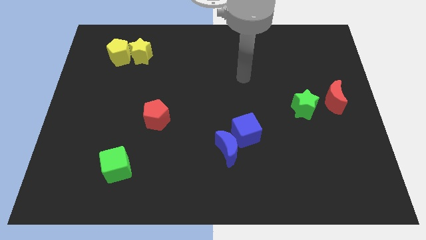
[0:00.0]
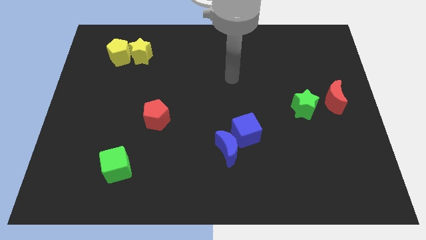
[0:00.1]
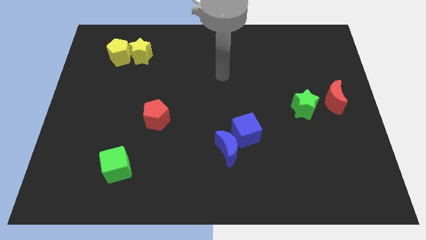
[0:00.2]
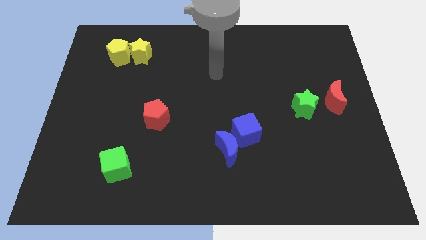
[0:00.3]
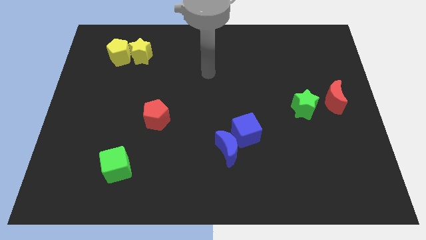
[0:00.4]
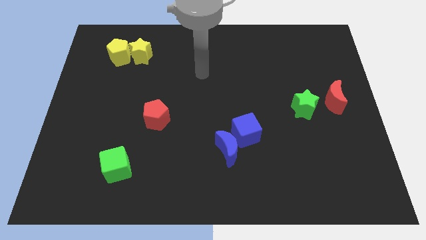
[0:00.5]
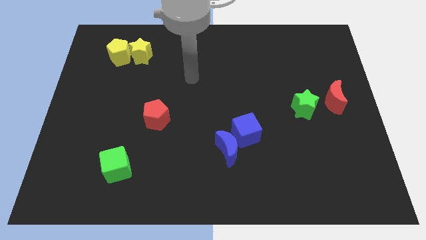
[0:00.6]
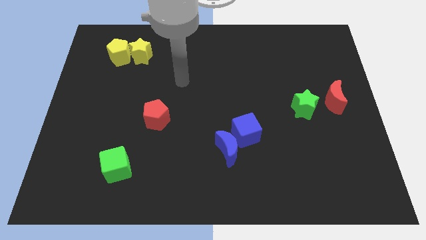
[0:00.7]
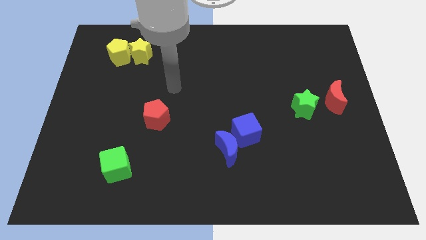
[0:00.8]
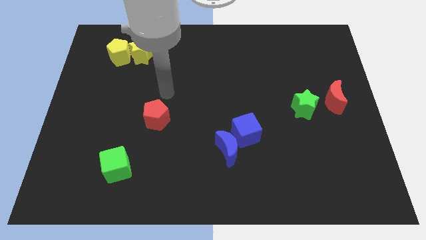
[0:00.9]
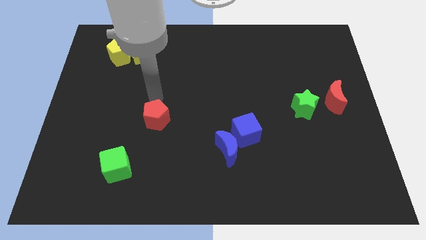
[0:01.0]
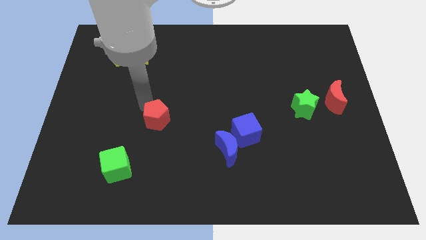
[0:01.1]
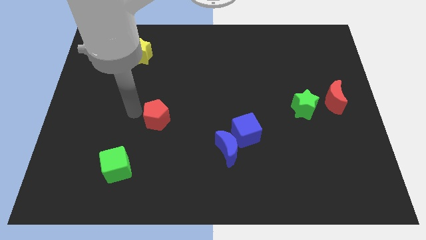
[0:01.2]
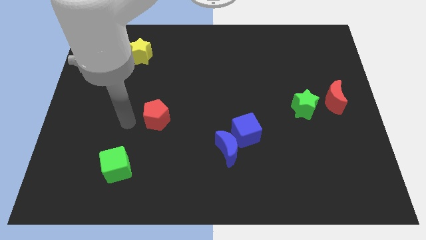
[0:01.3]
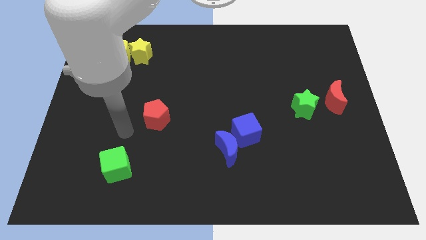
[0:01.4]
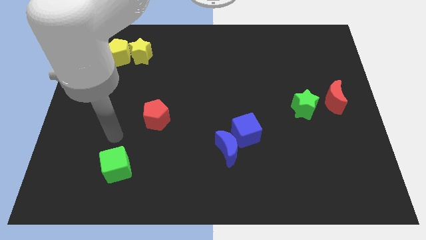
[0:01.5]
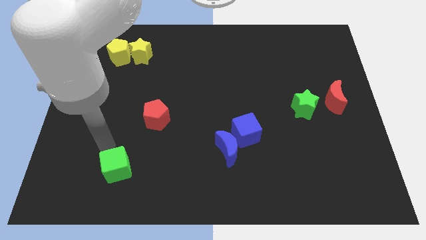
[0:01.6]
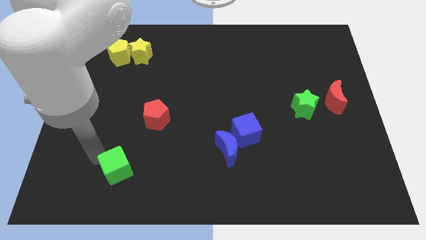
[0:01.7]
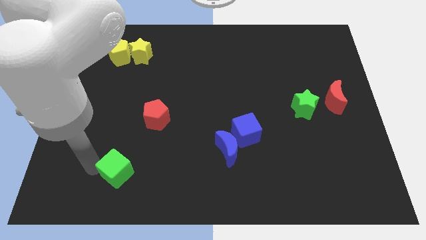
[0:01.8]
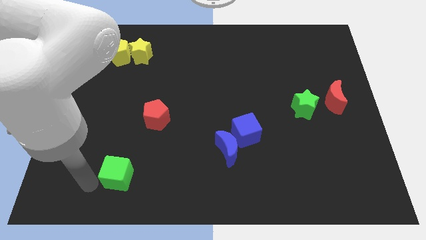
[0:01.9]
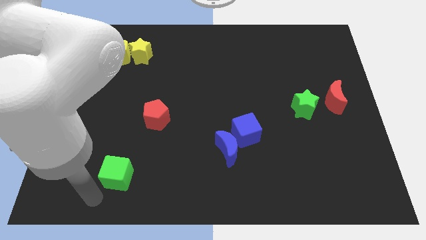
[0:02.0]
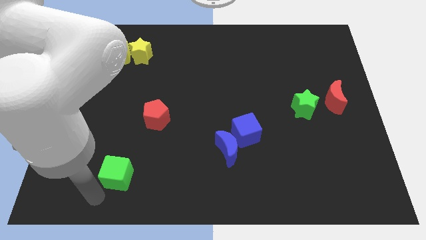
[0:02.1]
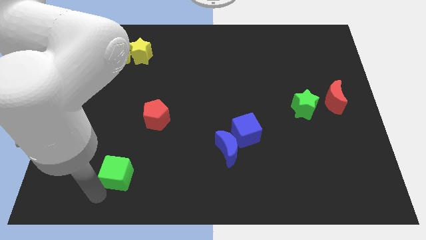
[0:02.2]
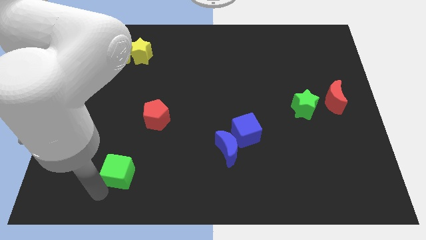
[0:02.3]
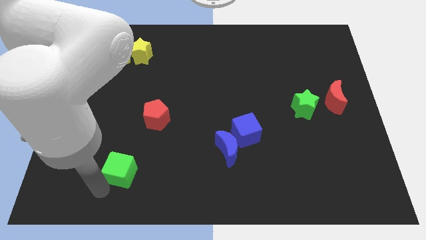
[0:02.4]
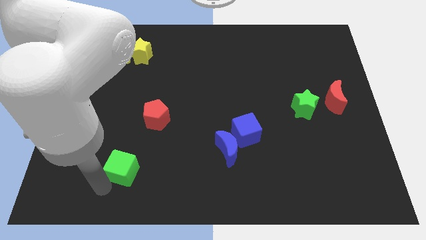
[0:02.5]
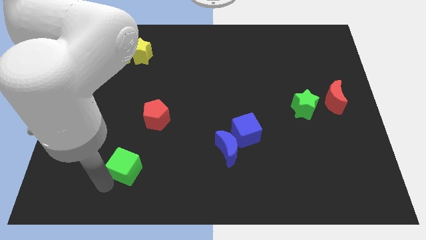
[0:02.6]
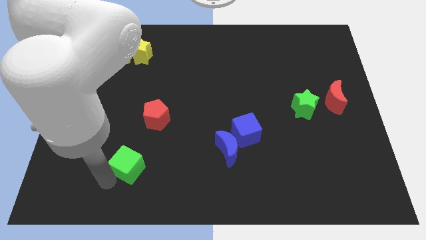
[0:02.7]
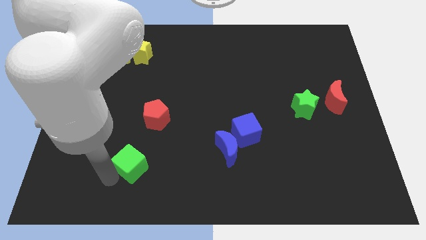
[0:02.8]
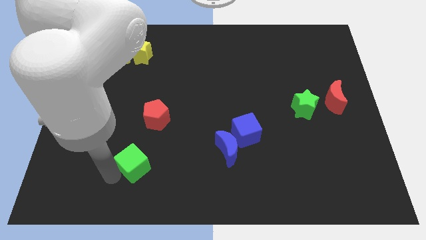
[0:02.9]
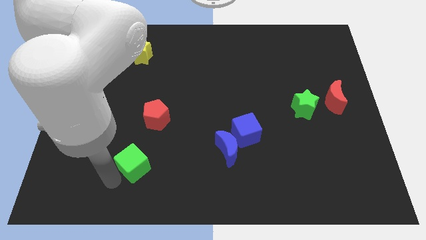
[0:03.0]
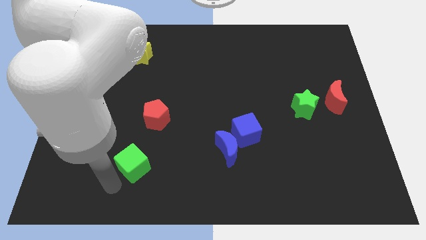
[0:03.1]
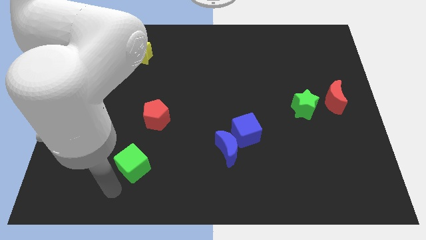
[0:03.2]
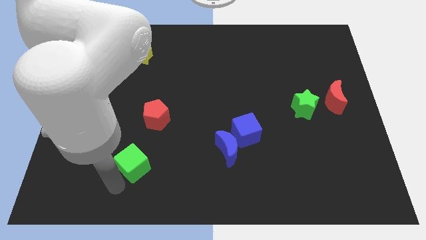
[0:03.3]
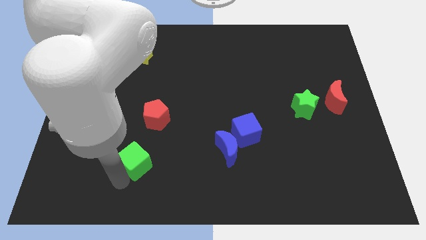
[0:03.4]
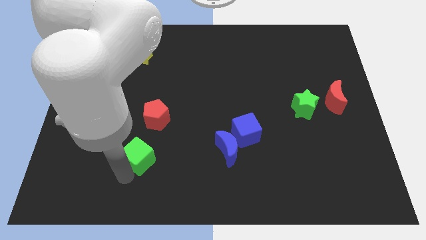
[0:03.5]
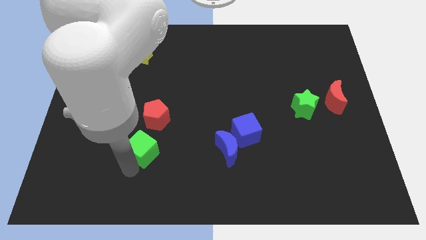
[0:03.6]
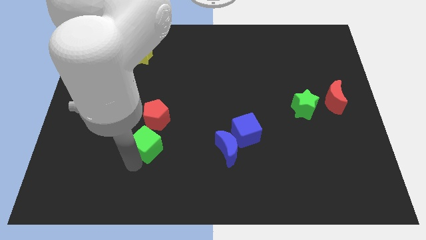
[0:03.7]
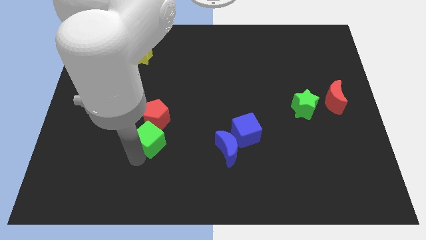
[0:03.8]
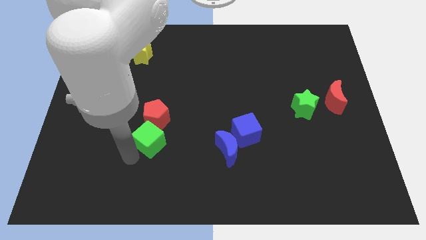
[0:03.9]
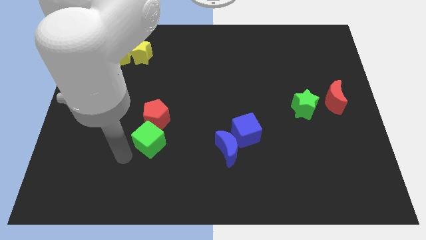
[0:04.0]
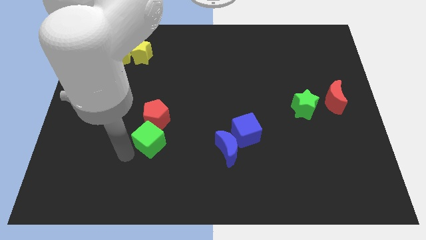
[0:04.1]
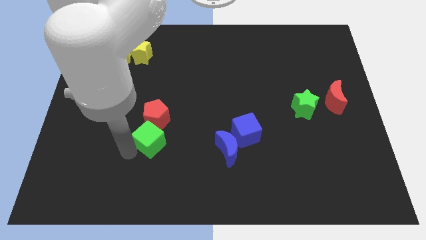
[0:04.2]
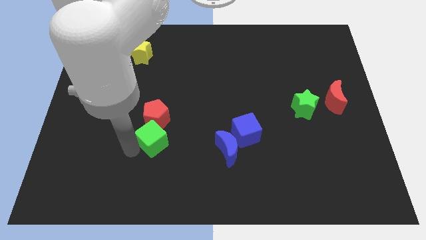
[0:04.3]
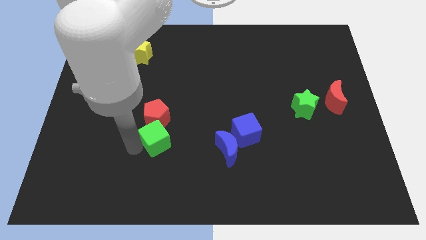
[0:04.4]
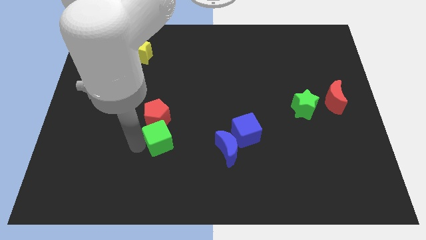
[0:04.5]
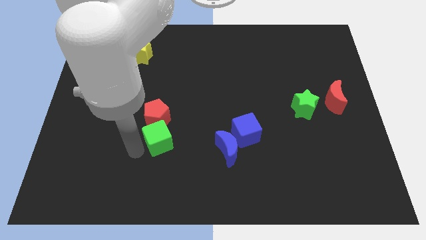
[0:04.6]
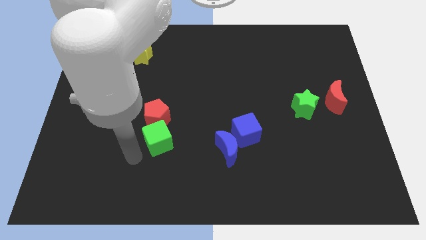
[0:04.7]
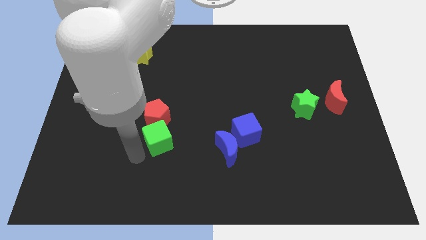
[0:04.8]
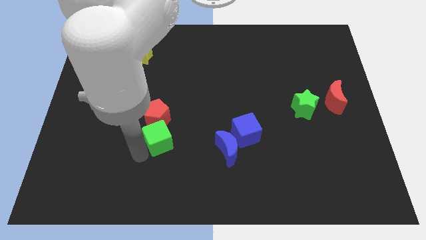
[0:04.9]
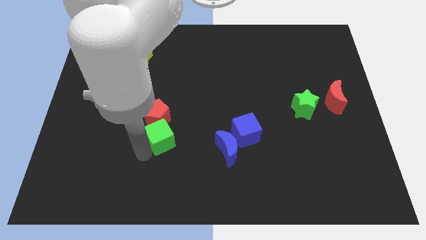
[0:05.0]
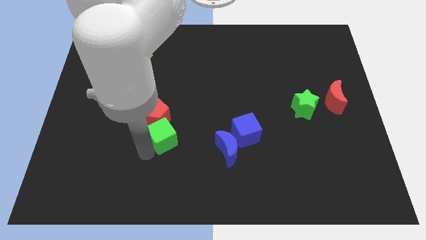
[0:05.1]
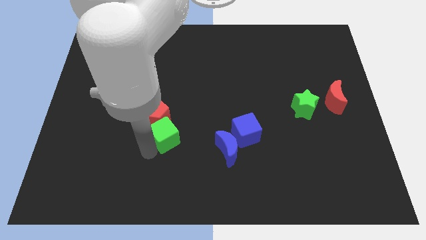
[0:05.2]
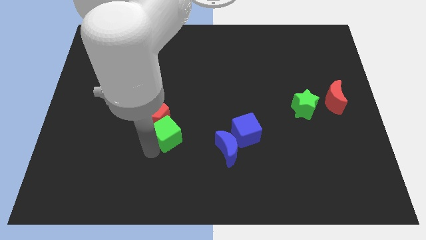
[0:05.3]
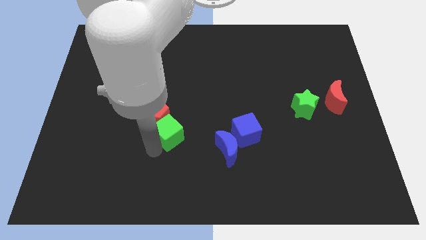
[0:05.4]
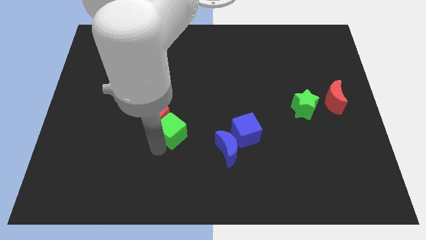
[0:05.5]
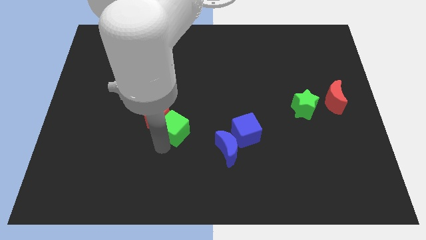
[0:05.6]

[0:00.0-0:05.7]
put the green cube to the center

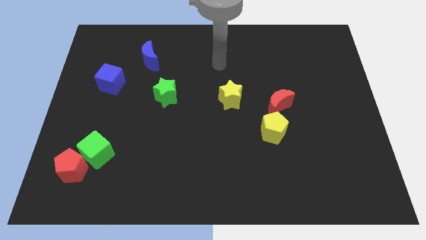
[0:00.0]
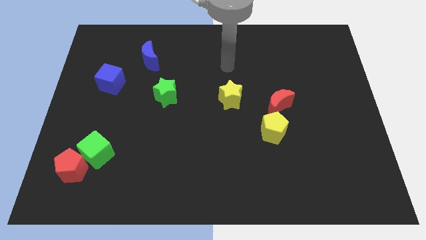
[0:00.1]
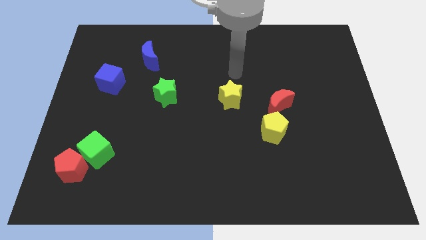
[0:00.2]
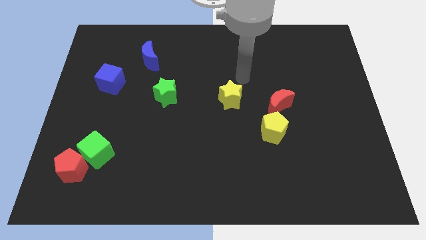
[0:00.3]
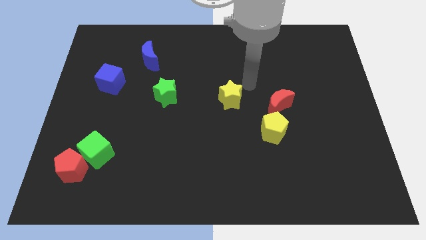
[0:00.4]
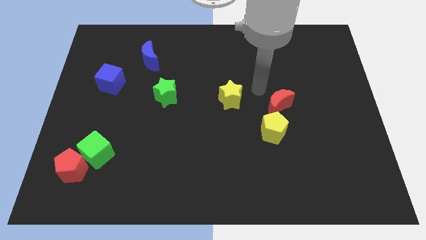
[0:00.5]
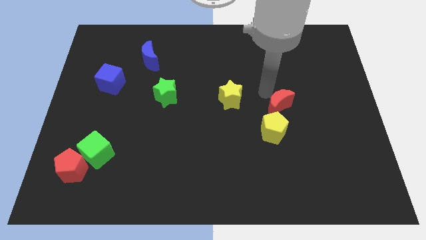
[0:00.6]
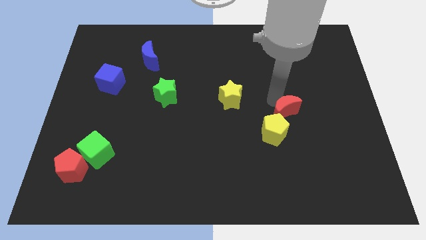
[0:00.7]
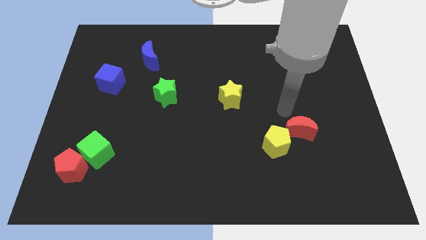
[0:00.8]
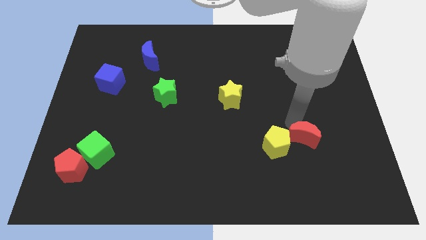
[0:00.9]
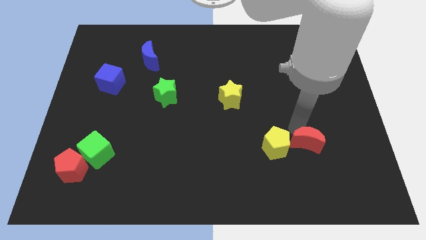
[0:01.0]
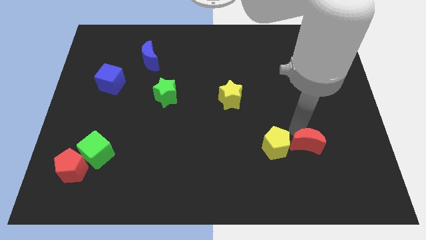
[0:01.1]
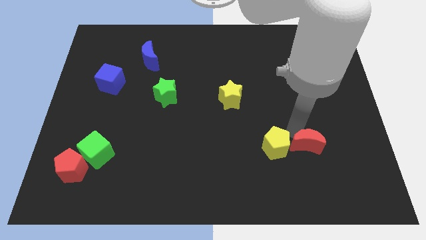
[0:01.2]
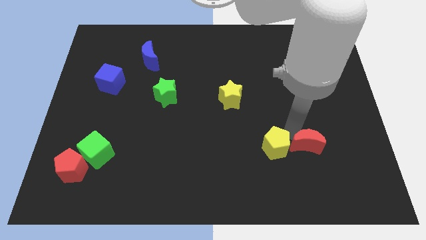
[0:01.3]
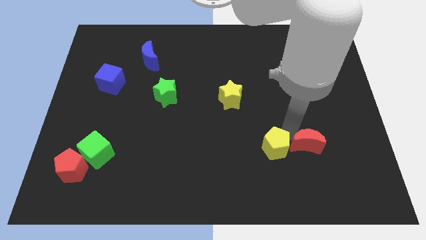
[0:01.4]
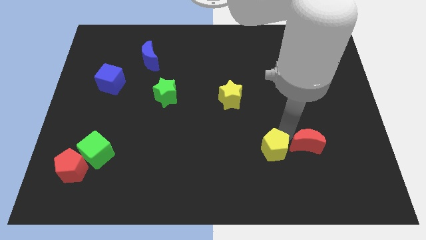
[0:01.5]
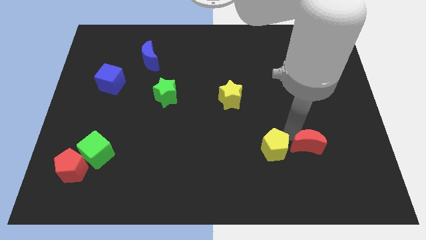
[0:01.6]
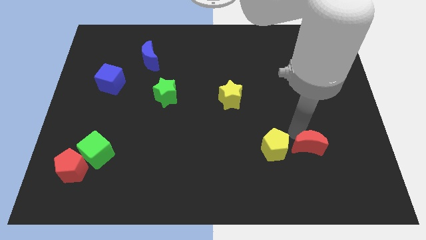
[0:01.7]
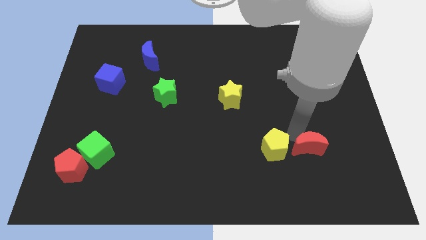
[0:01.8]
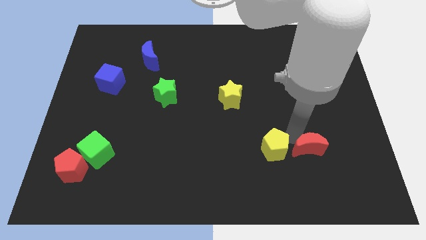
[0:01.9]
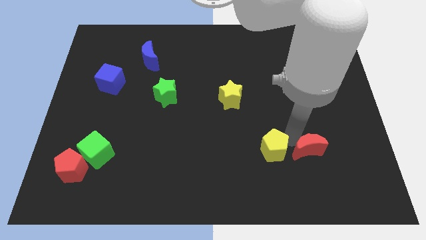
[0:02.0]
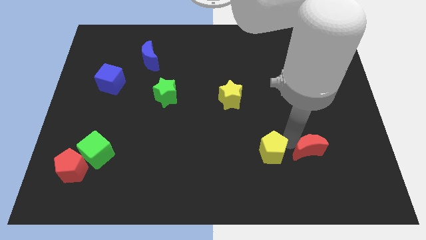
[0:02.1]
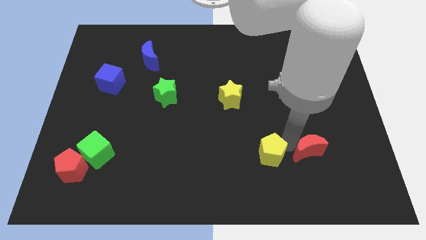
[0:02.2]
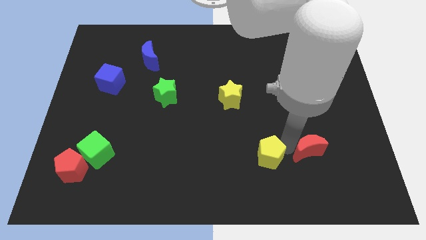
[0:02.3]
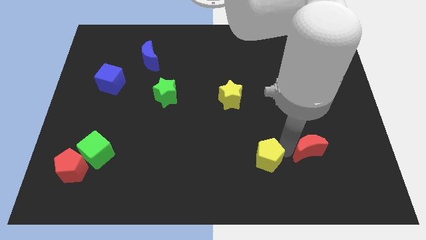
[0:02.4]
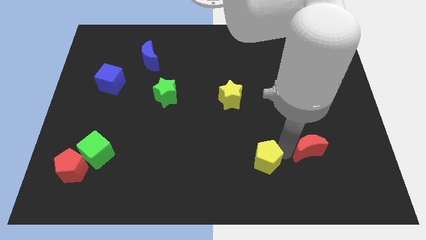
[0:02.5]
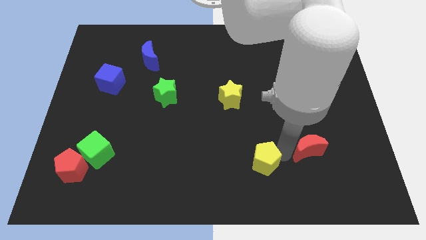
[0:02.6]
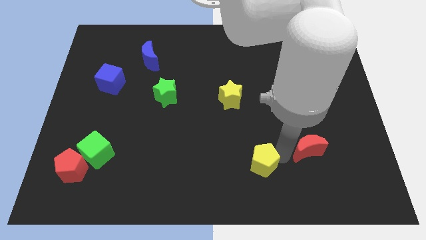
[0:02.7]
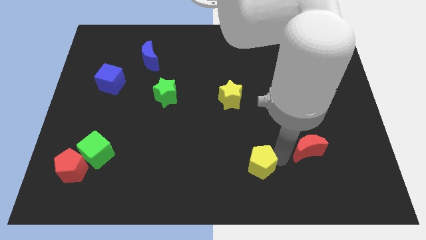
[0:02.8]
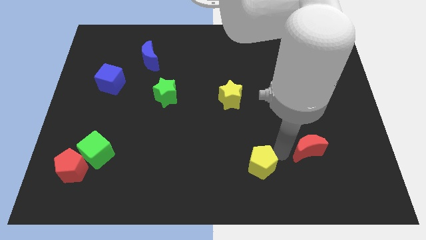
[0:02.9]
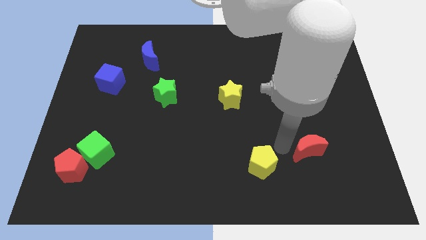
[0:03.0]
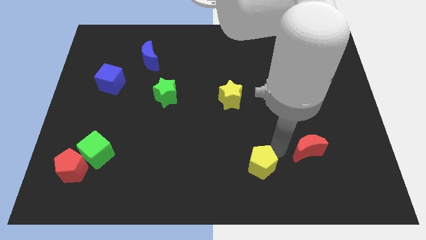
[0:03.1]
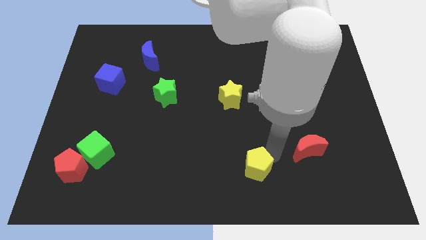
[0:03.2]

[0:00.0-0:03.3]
put the yellow pentagon to the bottom
